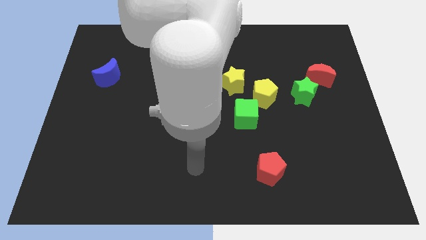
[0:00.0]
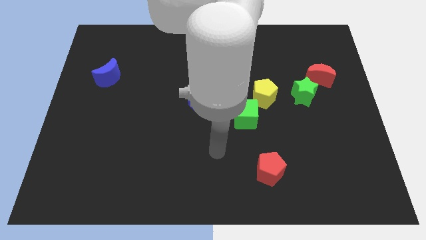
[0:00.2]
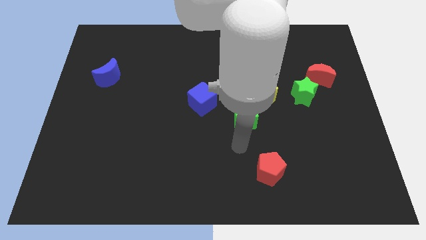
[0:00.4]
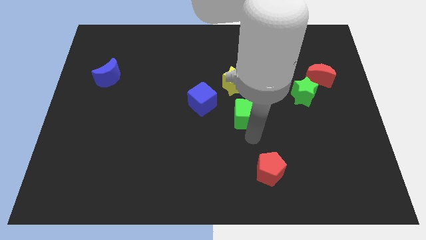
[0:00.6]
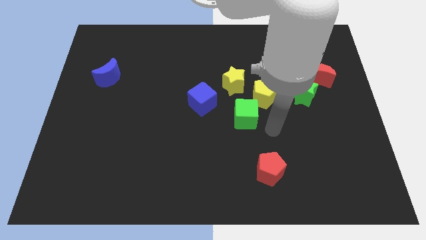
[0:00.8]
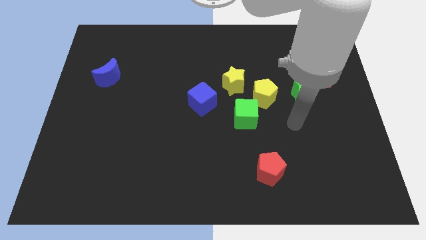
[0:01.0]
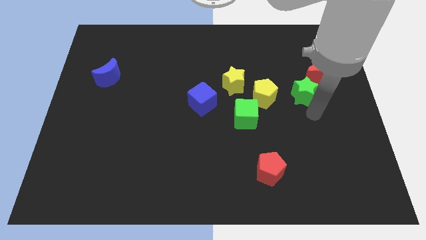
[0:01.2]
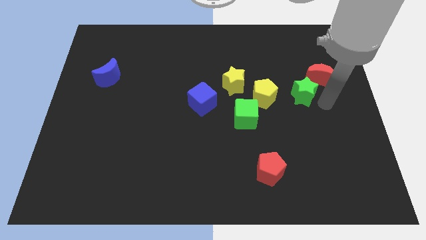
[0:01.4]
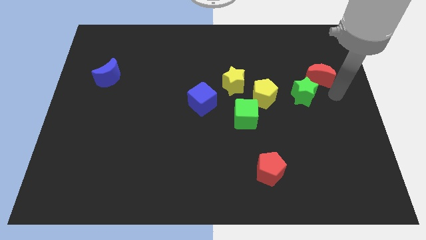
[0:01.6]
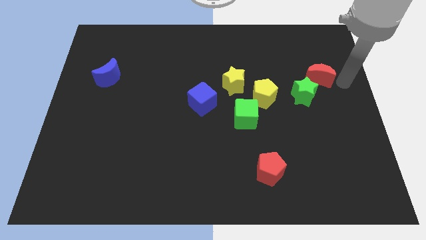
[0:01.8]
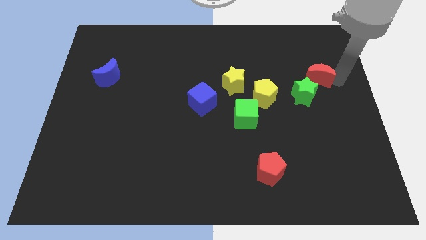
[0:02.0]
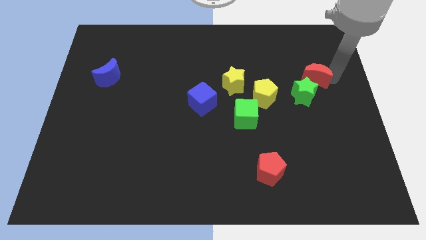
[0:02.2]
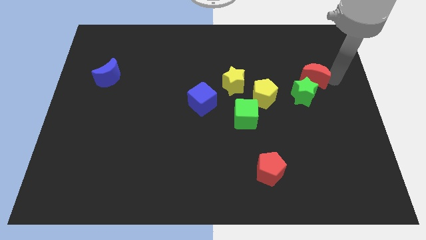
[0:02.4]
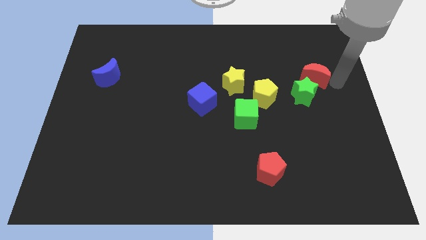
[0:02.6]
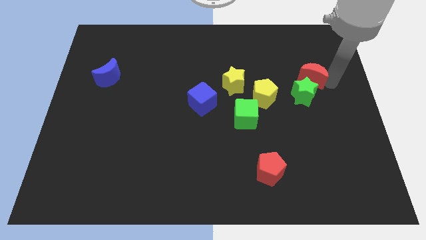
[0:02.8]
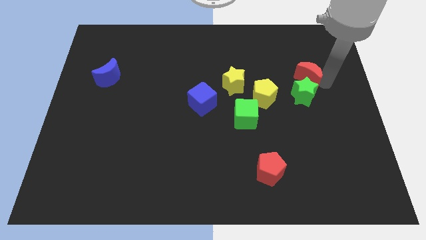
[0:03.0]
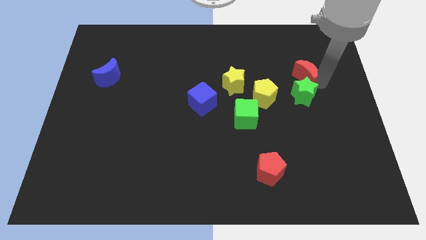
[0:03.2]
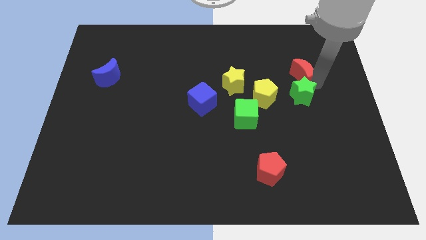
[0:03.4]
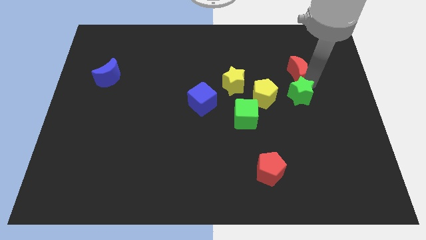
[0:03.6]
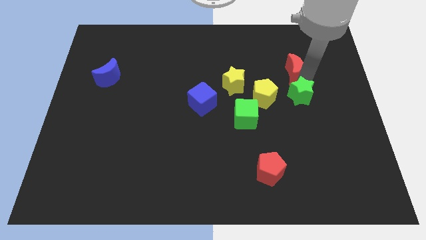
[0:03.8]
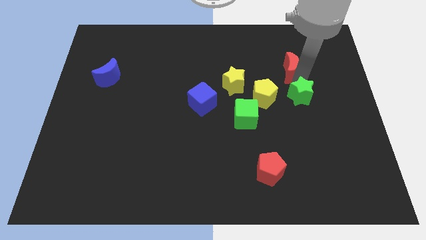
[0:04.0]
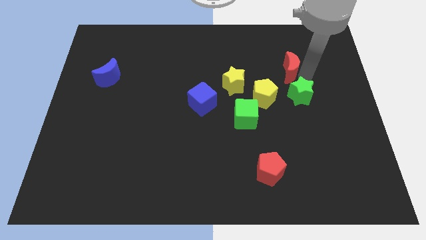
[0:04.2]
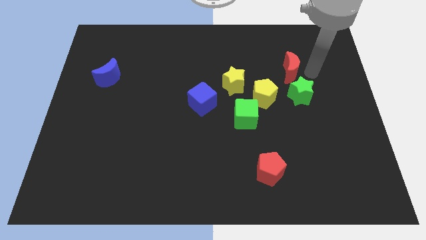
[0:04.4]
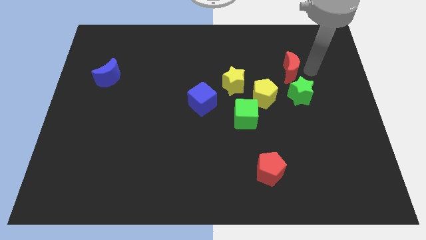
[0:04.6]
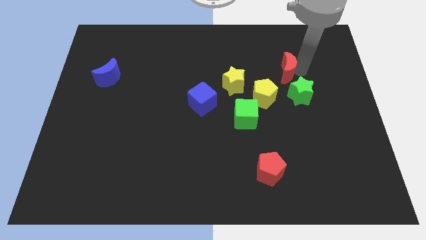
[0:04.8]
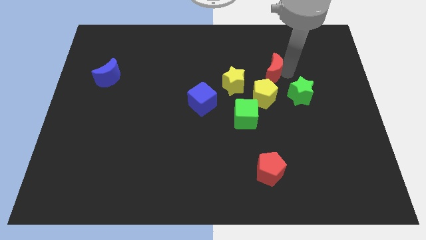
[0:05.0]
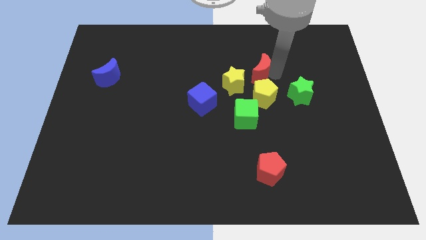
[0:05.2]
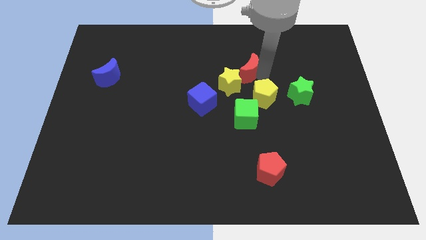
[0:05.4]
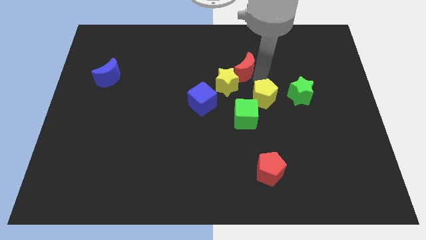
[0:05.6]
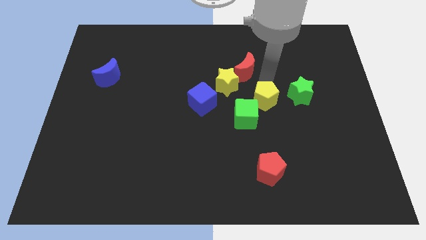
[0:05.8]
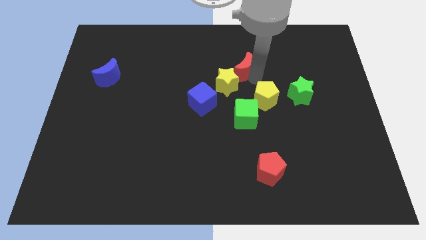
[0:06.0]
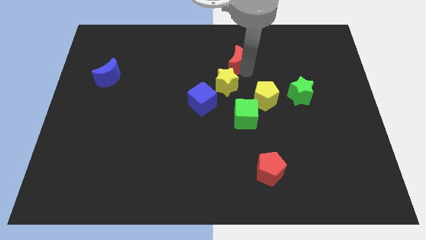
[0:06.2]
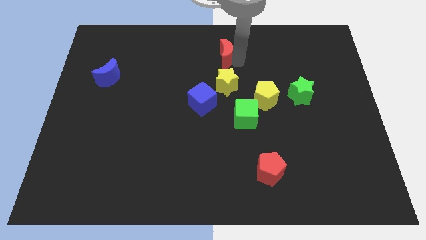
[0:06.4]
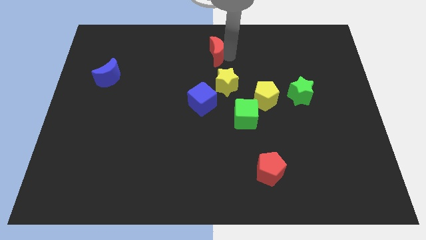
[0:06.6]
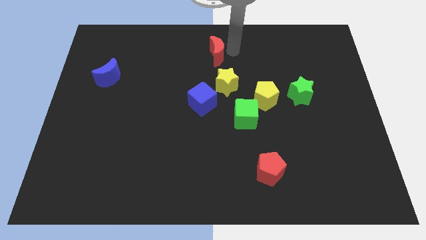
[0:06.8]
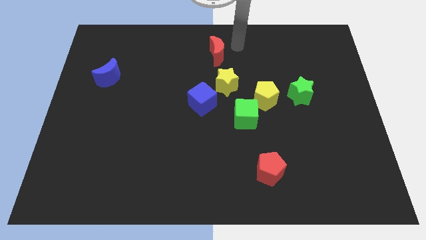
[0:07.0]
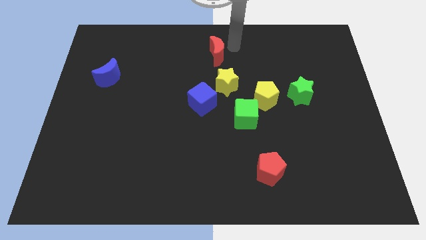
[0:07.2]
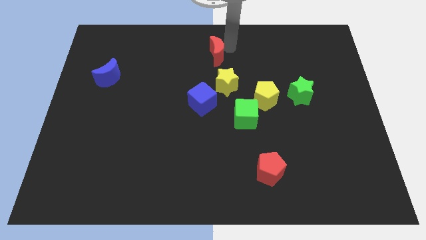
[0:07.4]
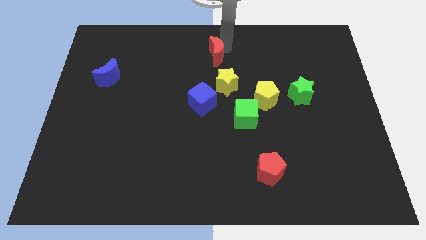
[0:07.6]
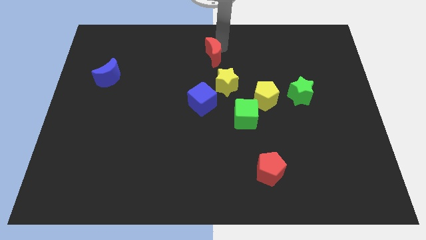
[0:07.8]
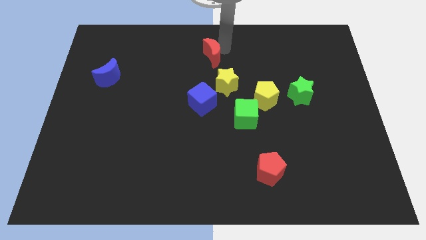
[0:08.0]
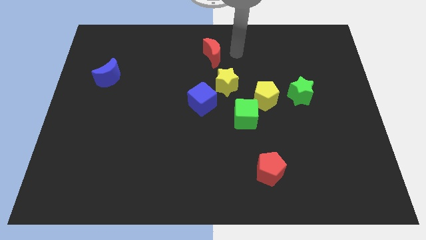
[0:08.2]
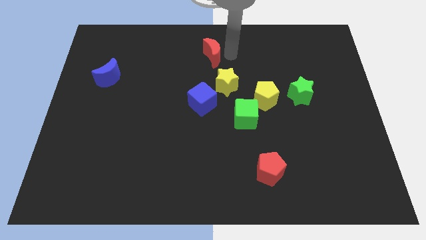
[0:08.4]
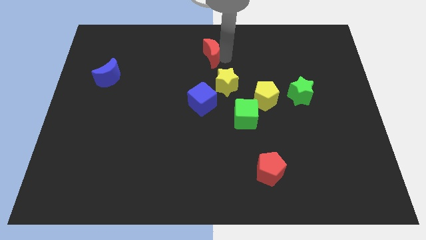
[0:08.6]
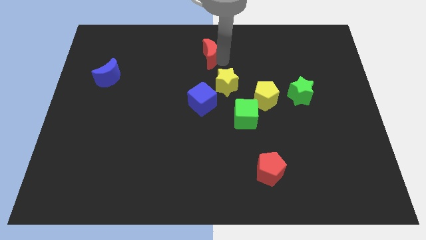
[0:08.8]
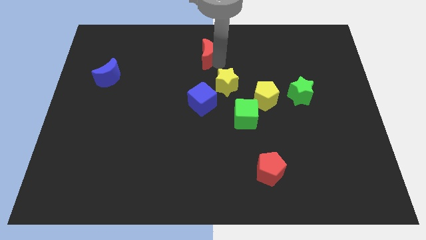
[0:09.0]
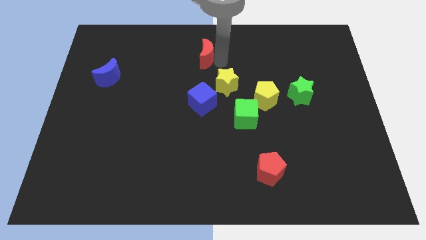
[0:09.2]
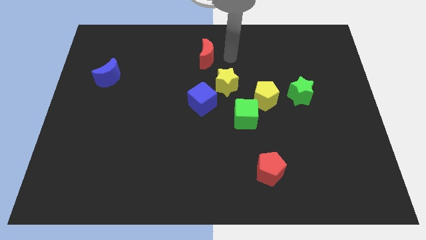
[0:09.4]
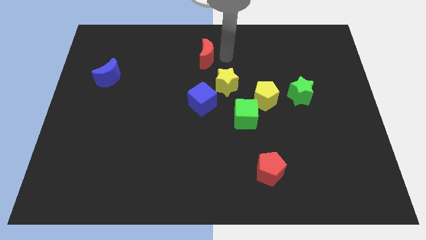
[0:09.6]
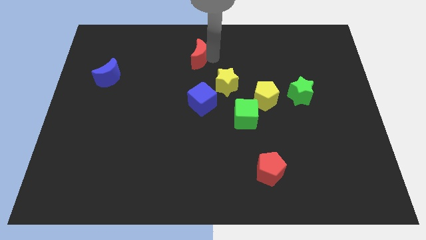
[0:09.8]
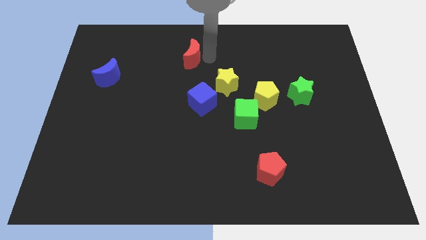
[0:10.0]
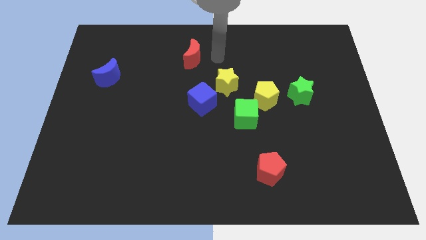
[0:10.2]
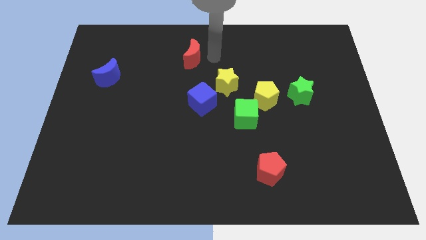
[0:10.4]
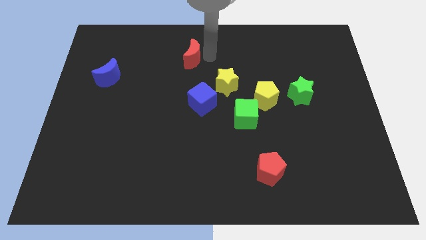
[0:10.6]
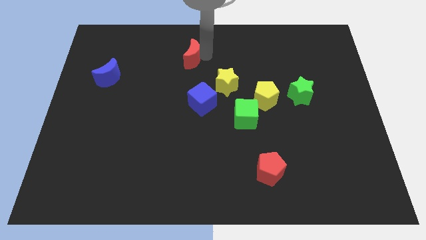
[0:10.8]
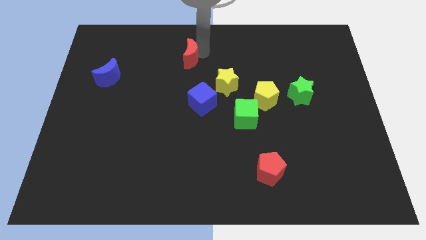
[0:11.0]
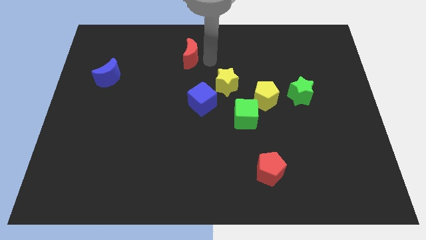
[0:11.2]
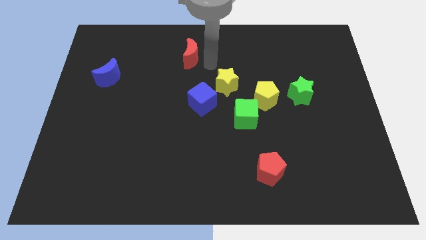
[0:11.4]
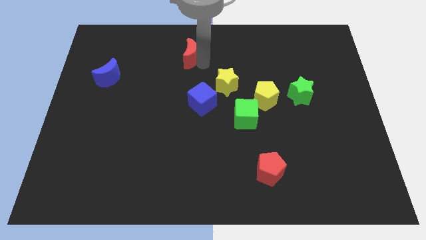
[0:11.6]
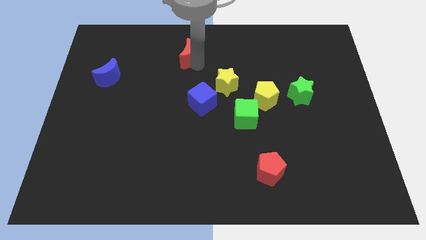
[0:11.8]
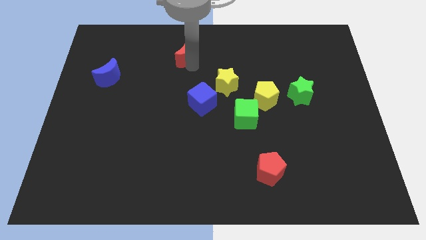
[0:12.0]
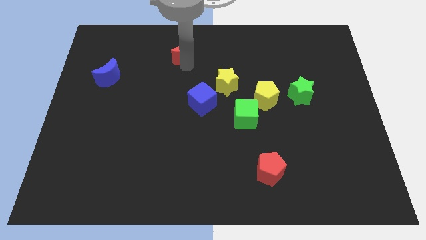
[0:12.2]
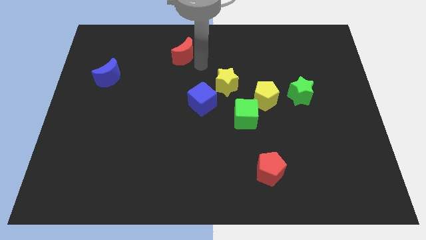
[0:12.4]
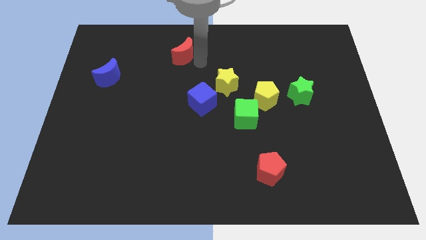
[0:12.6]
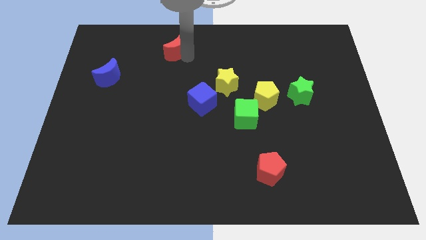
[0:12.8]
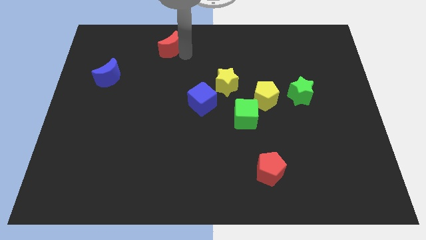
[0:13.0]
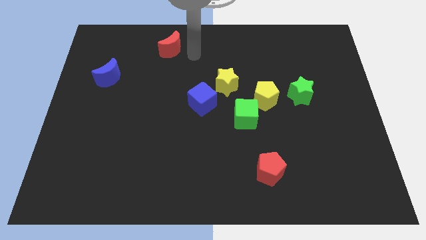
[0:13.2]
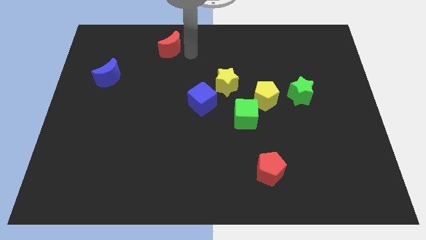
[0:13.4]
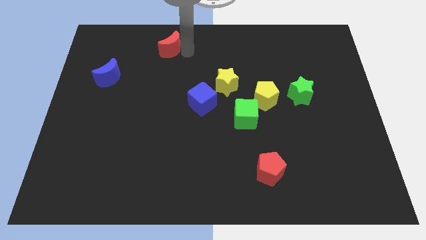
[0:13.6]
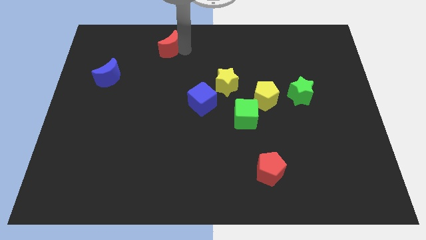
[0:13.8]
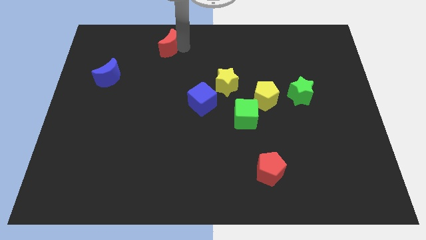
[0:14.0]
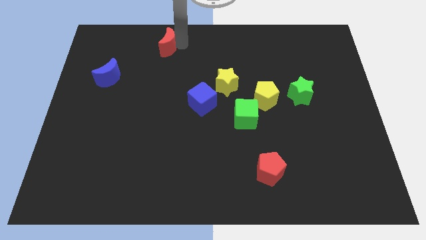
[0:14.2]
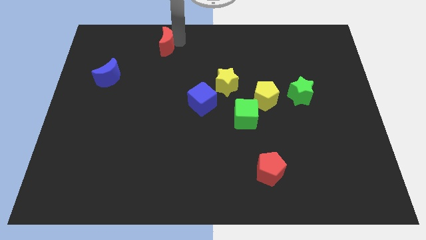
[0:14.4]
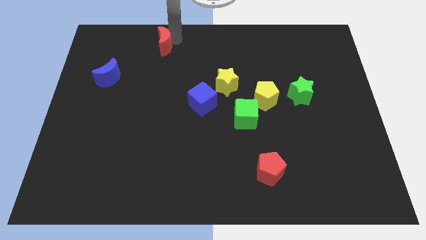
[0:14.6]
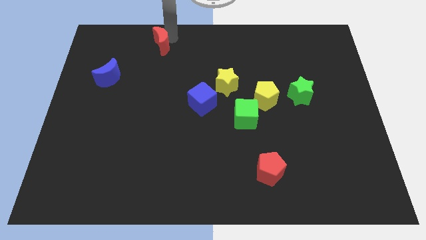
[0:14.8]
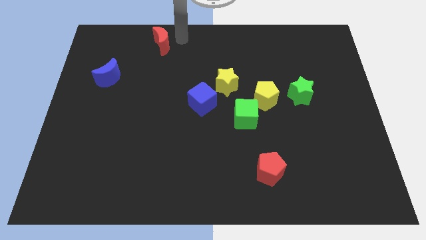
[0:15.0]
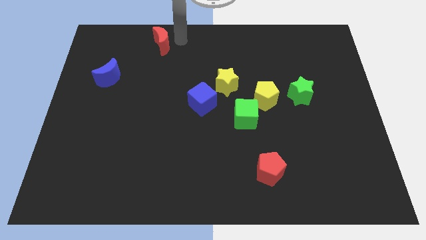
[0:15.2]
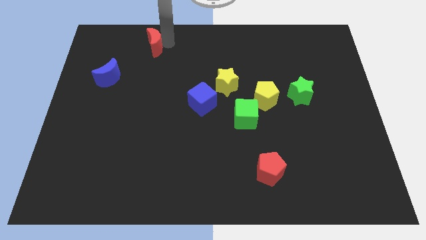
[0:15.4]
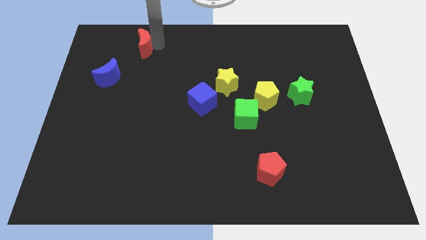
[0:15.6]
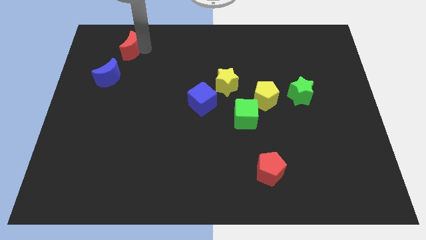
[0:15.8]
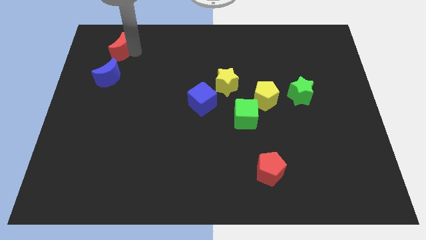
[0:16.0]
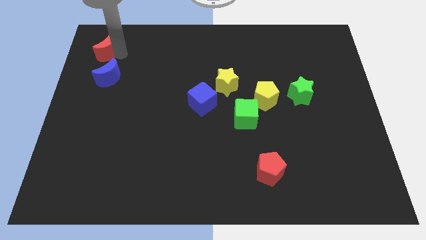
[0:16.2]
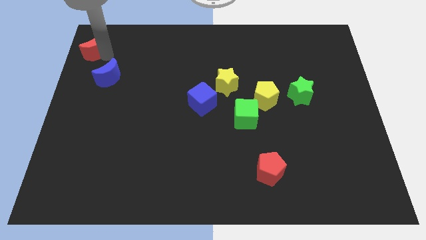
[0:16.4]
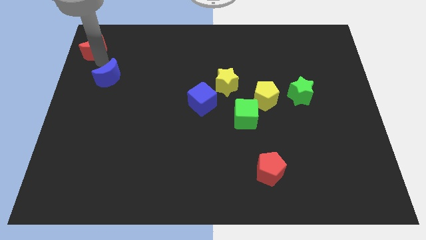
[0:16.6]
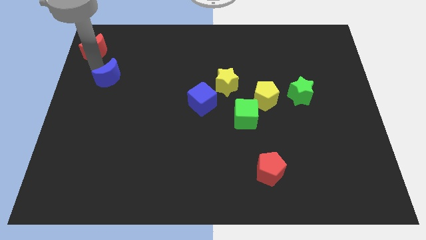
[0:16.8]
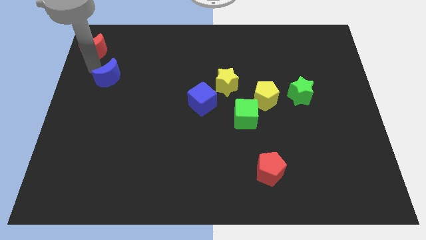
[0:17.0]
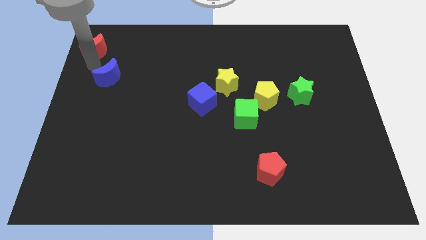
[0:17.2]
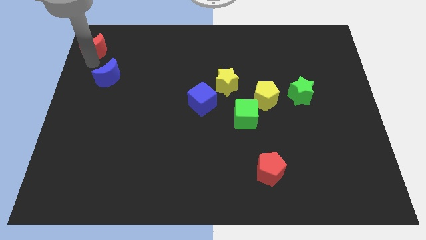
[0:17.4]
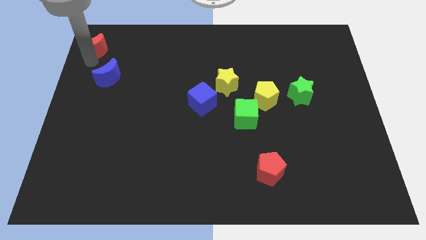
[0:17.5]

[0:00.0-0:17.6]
put the red moon to the top left corner
